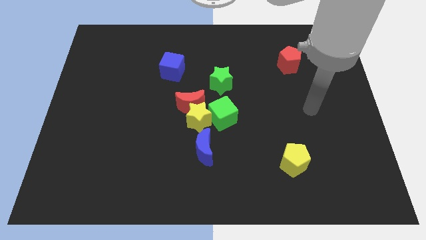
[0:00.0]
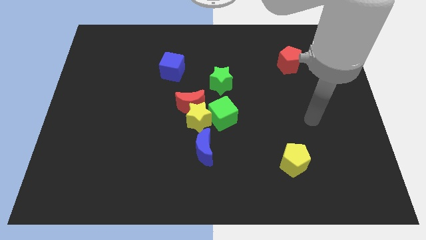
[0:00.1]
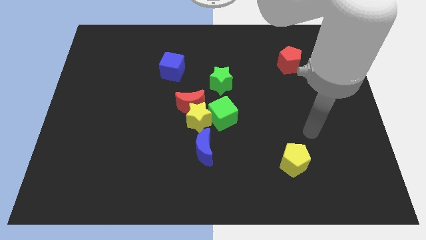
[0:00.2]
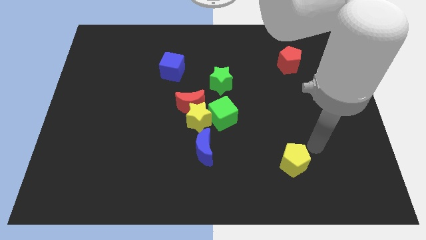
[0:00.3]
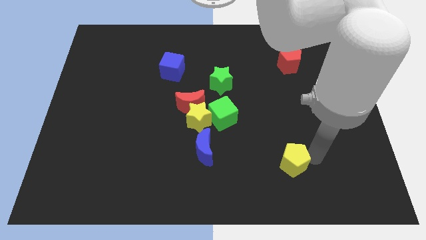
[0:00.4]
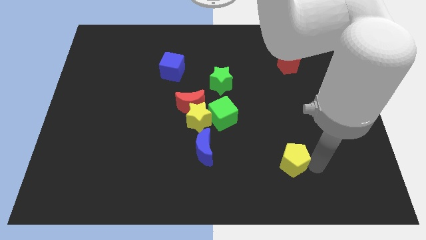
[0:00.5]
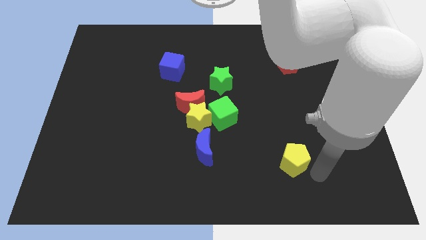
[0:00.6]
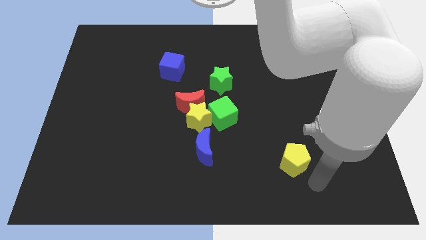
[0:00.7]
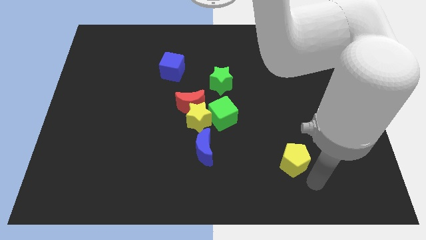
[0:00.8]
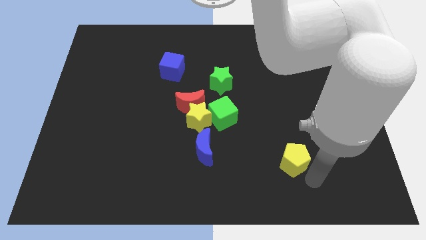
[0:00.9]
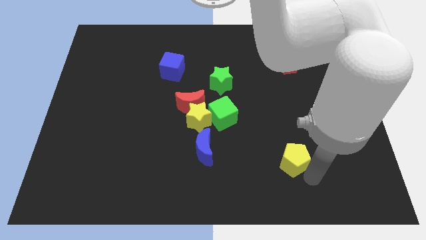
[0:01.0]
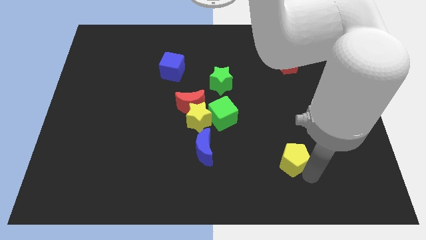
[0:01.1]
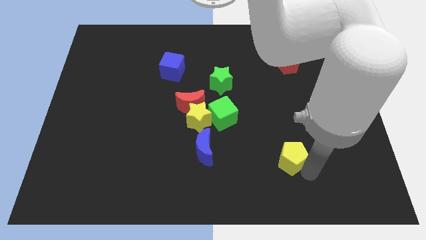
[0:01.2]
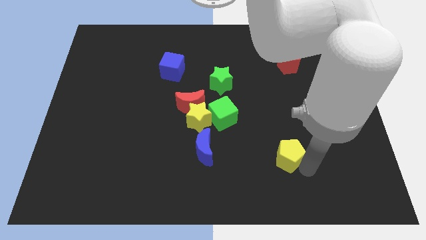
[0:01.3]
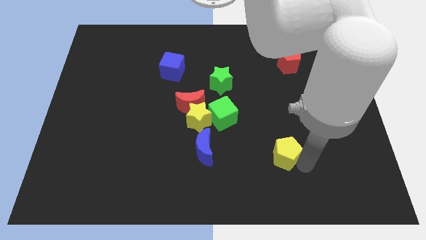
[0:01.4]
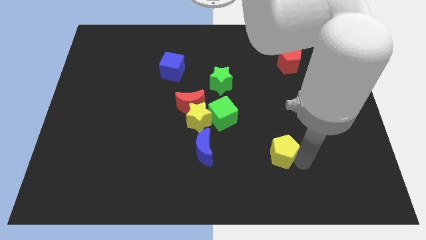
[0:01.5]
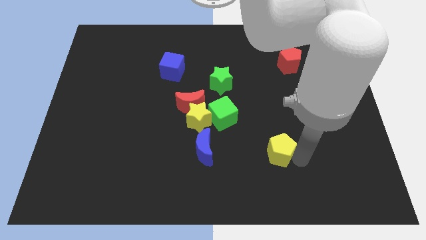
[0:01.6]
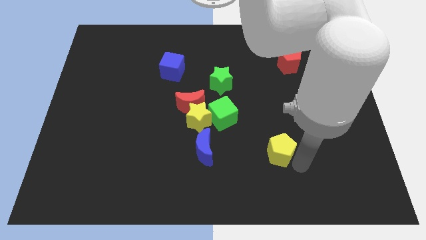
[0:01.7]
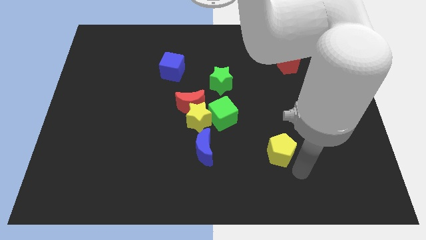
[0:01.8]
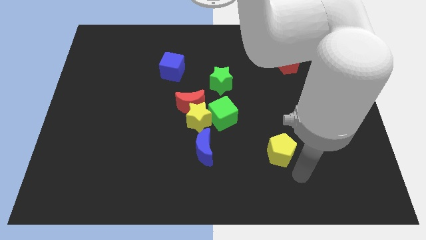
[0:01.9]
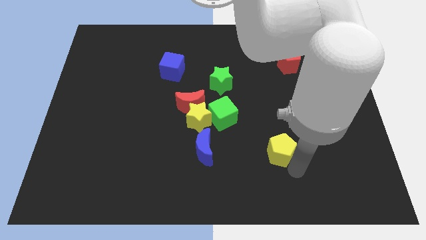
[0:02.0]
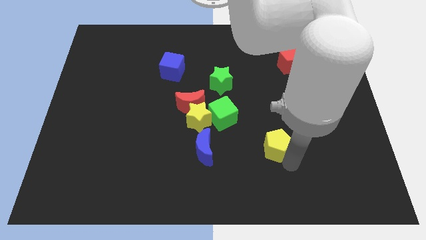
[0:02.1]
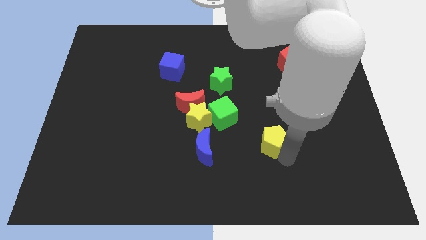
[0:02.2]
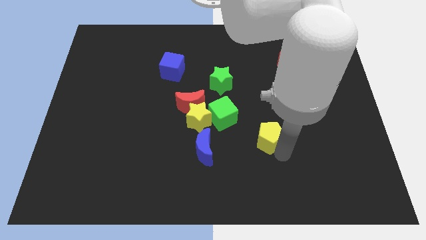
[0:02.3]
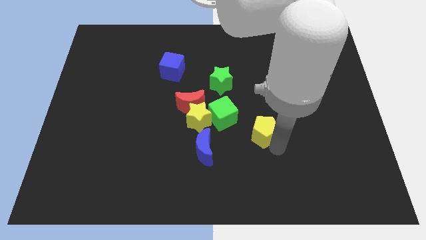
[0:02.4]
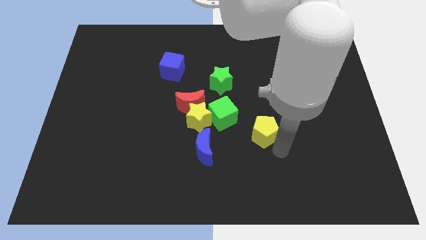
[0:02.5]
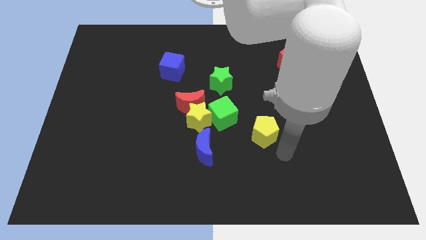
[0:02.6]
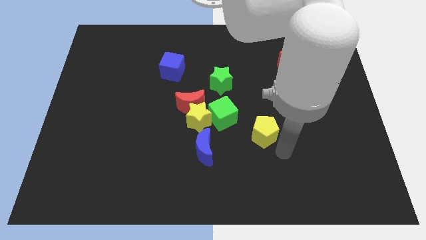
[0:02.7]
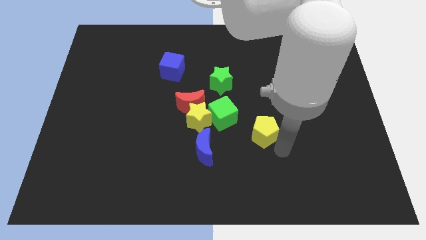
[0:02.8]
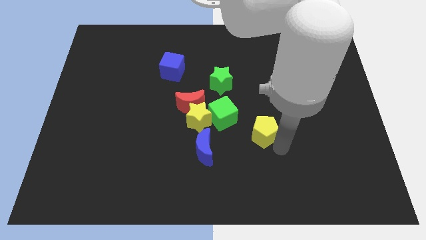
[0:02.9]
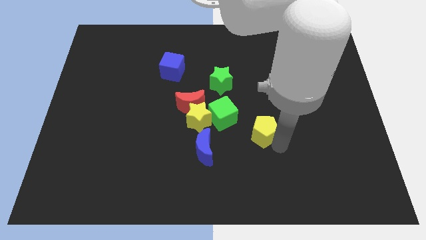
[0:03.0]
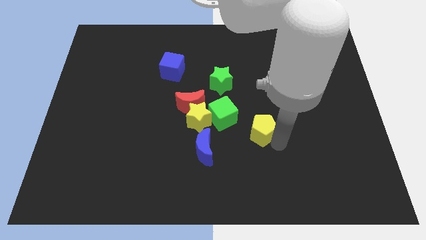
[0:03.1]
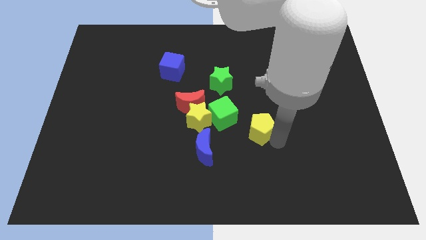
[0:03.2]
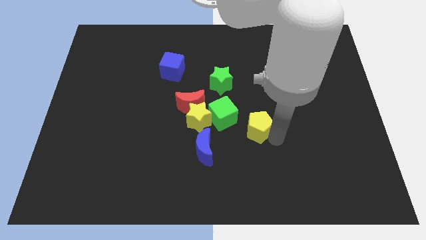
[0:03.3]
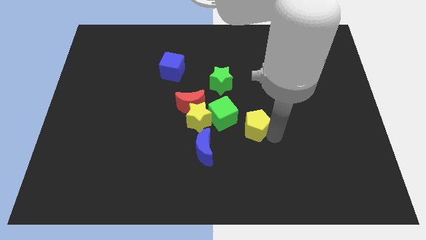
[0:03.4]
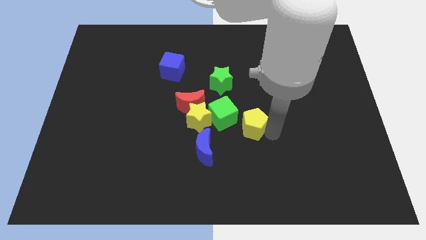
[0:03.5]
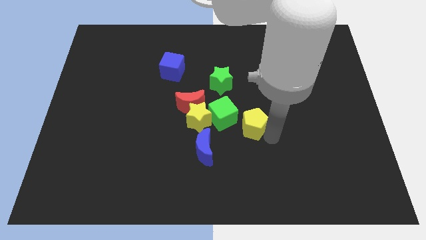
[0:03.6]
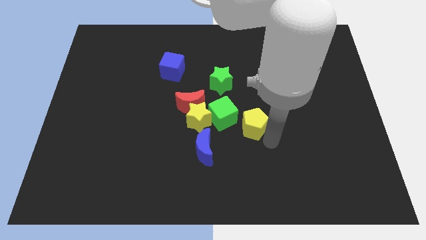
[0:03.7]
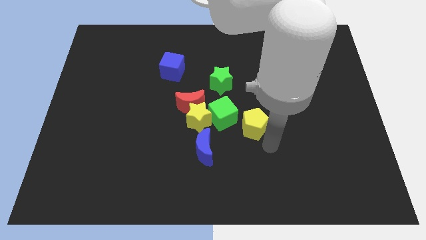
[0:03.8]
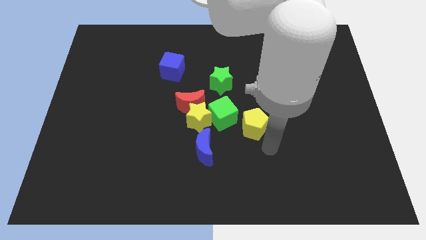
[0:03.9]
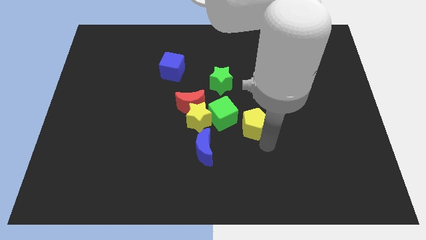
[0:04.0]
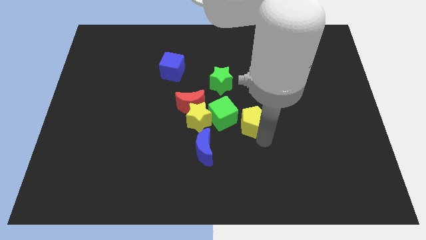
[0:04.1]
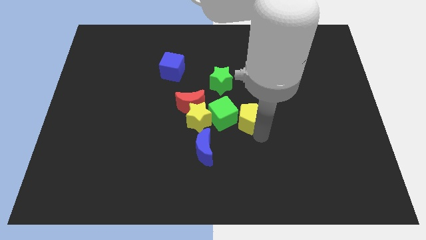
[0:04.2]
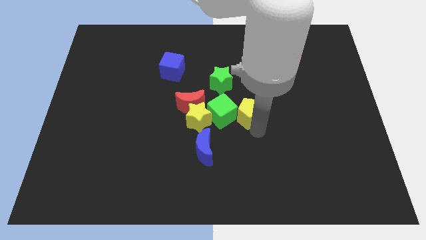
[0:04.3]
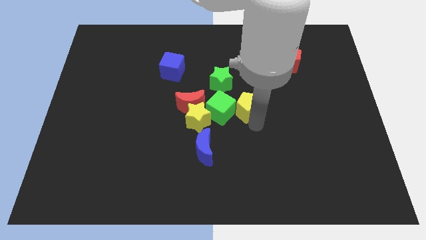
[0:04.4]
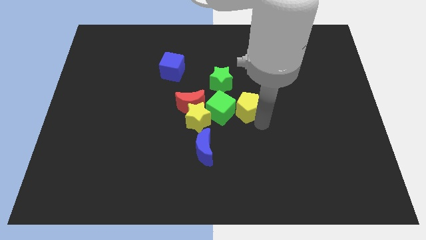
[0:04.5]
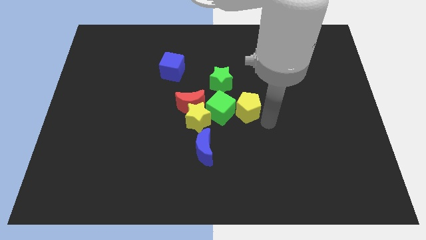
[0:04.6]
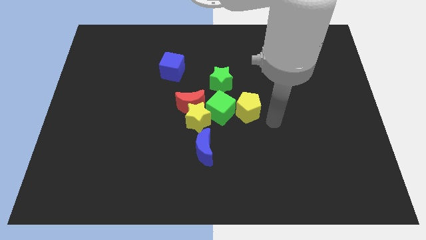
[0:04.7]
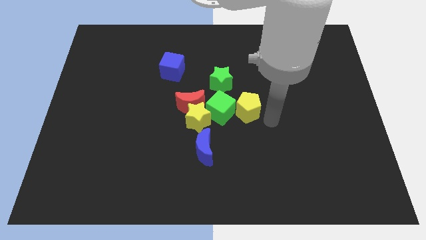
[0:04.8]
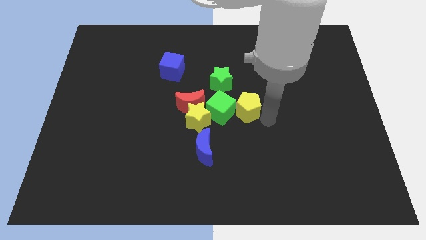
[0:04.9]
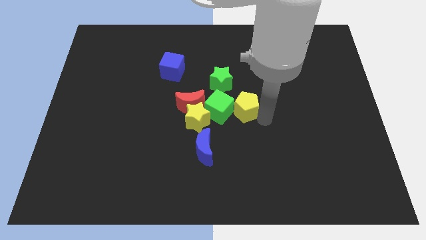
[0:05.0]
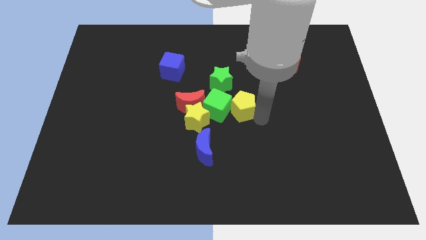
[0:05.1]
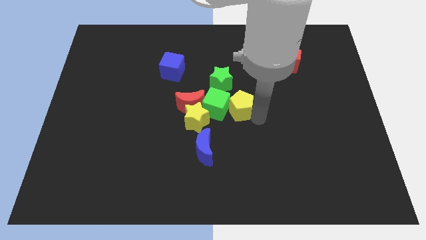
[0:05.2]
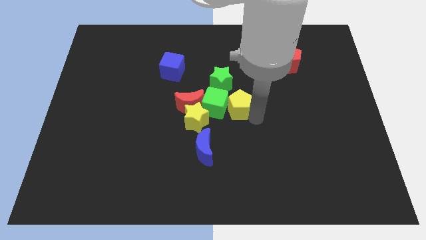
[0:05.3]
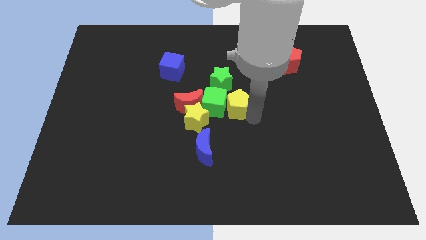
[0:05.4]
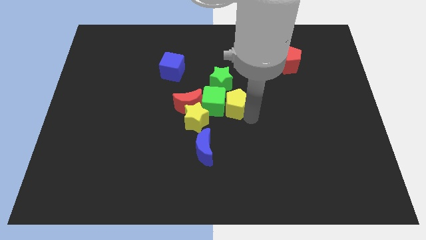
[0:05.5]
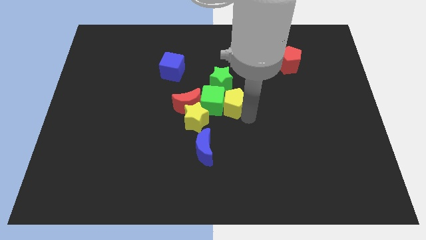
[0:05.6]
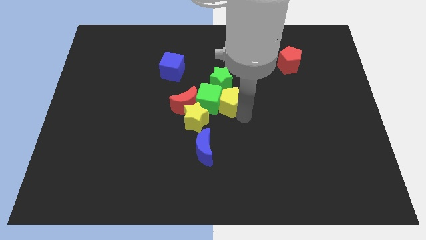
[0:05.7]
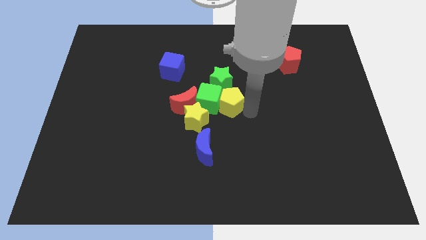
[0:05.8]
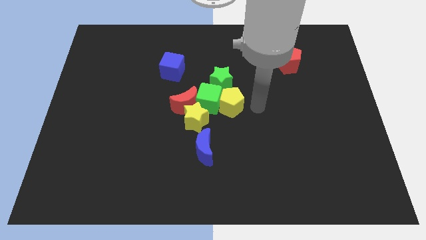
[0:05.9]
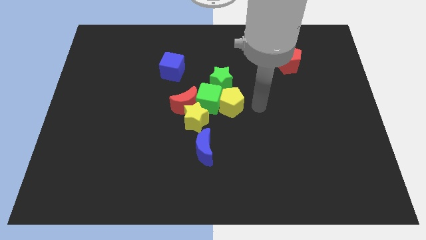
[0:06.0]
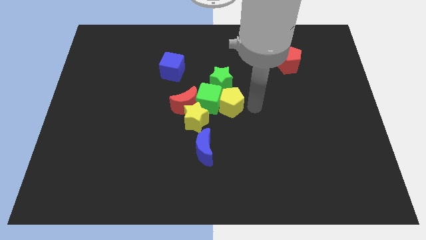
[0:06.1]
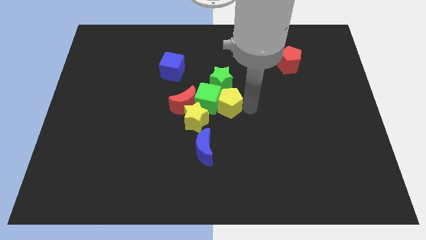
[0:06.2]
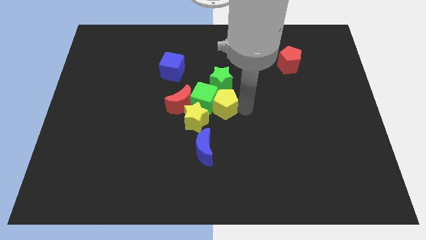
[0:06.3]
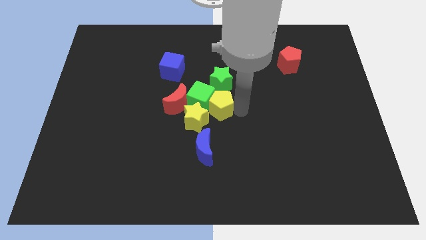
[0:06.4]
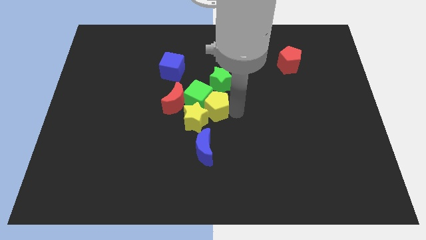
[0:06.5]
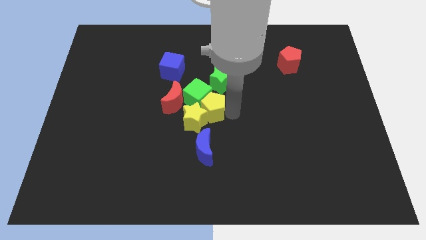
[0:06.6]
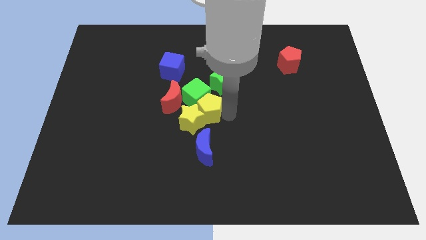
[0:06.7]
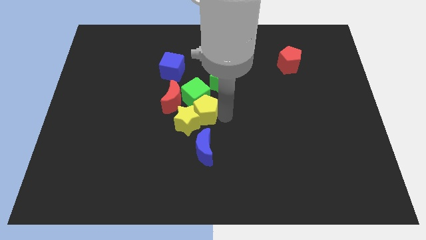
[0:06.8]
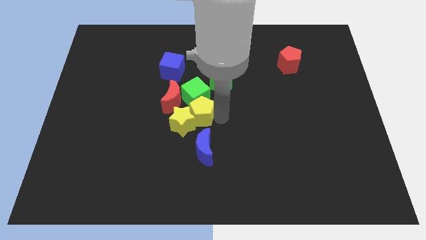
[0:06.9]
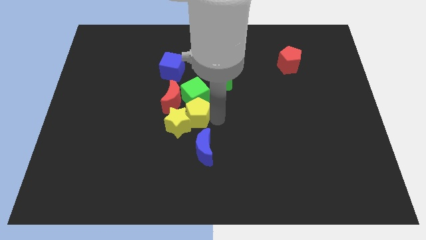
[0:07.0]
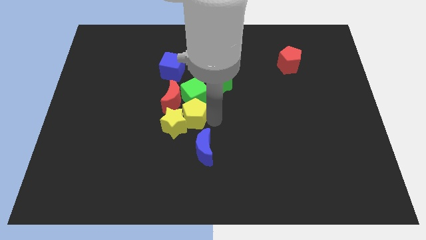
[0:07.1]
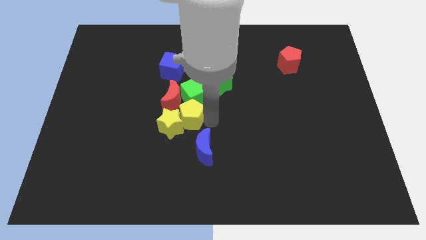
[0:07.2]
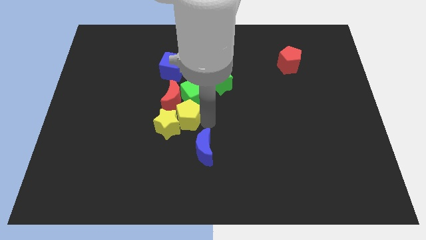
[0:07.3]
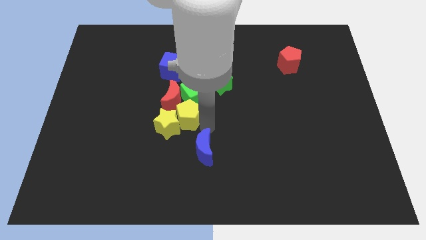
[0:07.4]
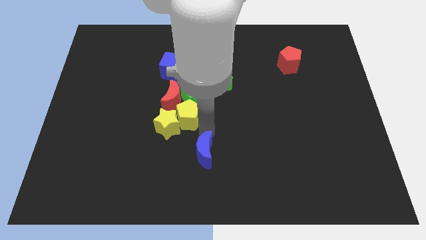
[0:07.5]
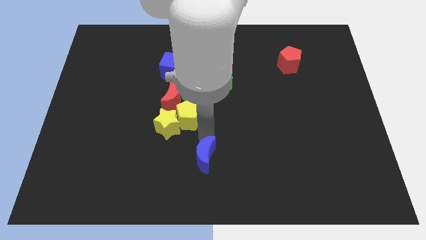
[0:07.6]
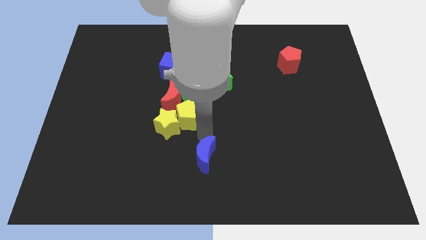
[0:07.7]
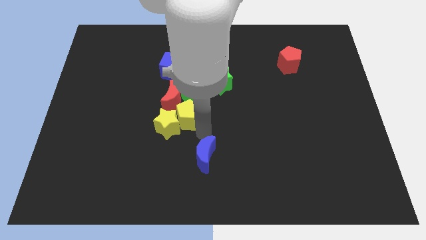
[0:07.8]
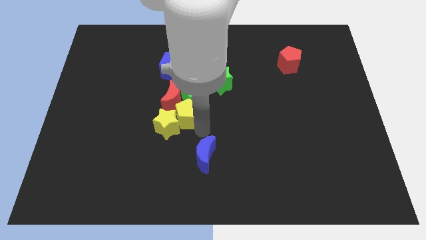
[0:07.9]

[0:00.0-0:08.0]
slide the yellow pentagon towards the red moon
